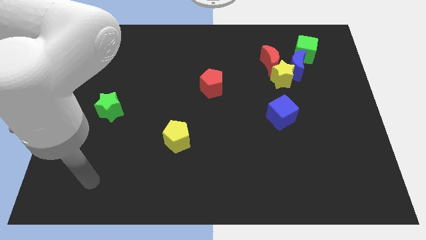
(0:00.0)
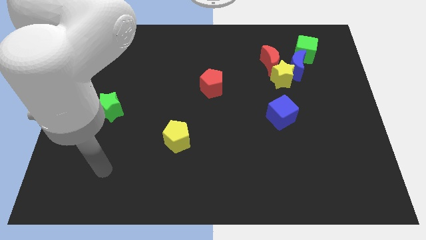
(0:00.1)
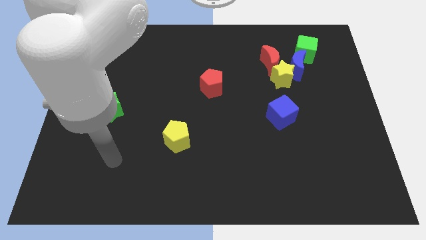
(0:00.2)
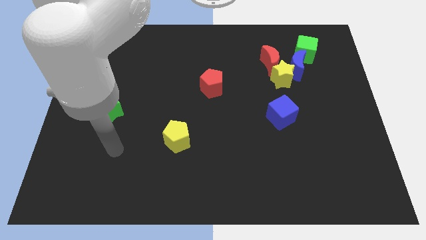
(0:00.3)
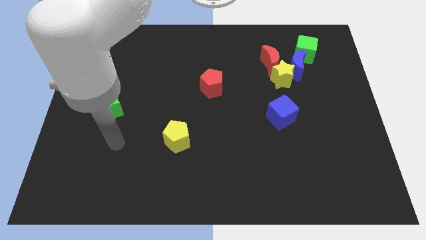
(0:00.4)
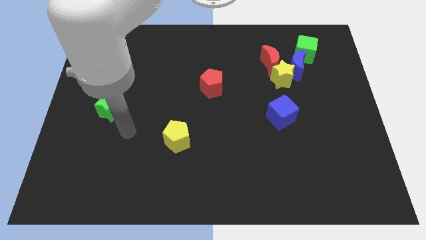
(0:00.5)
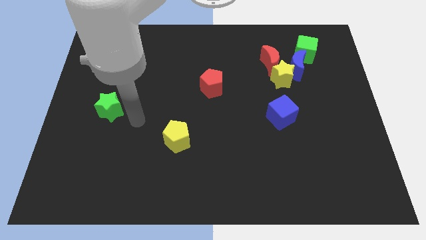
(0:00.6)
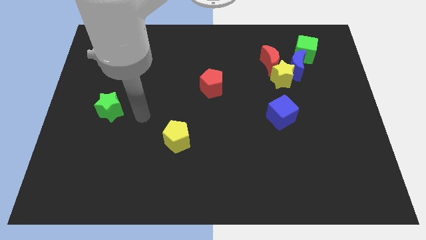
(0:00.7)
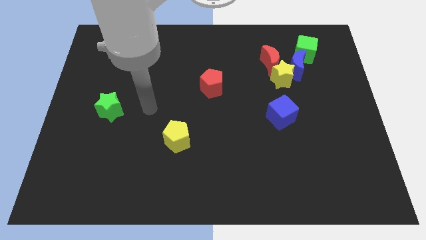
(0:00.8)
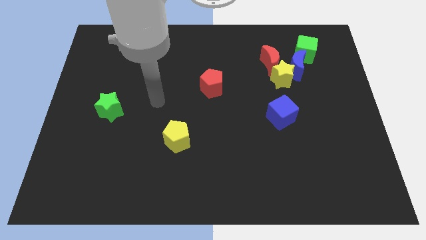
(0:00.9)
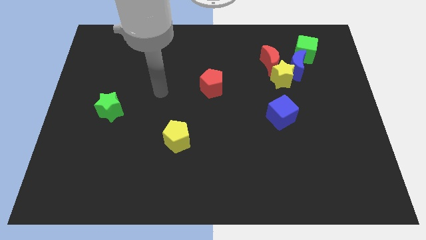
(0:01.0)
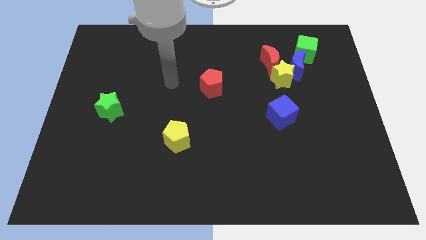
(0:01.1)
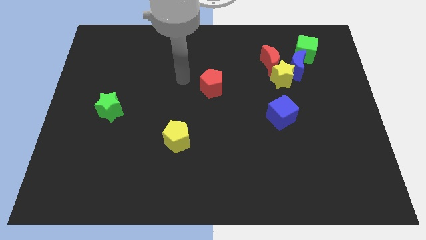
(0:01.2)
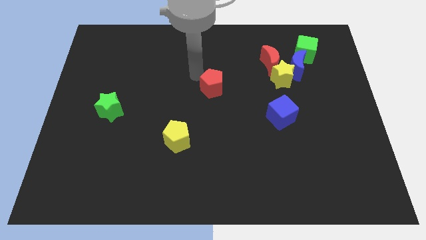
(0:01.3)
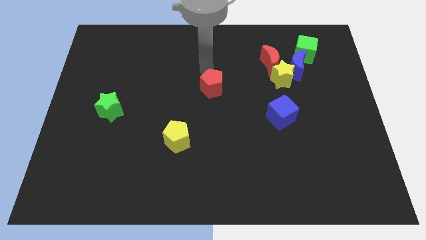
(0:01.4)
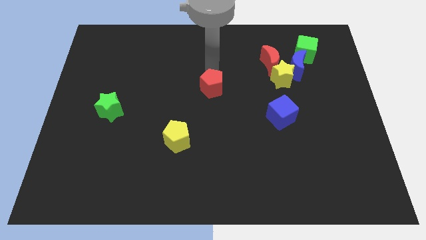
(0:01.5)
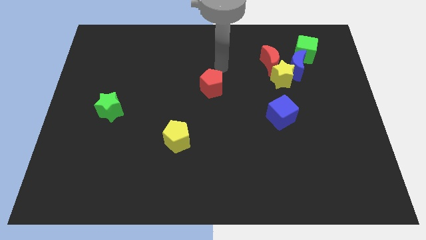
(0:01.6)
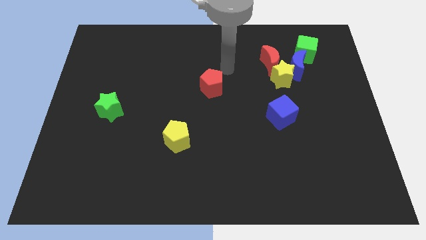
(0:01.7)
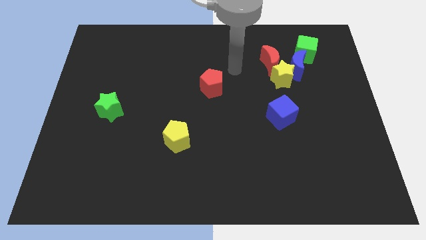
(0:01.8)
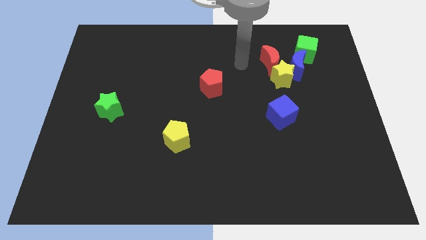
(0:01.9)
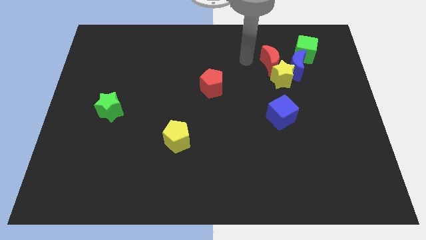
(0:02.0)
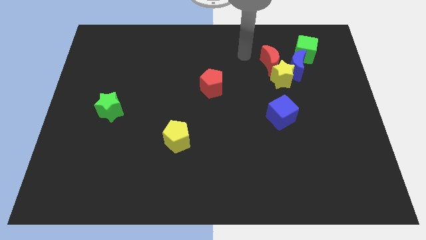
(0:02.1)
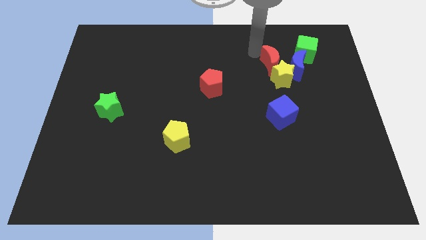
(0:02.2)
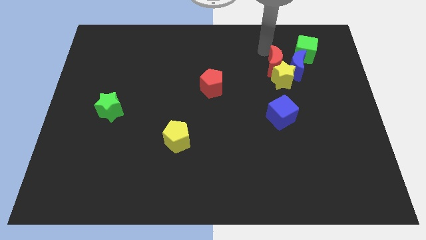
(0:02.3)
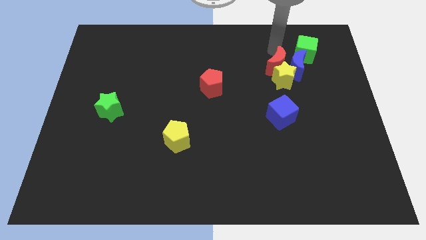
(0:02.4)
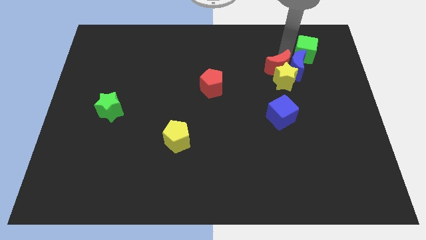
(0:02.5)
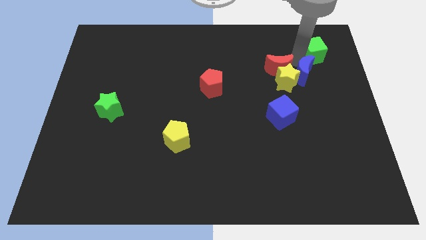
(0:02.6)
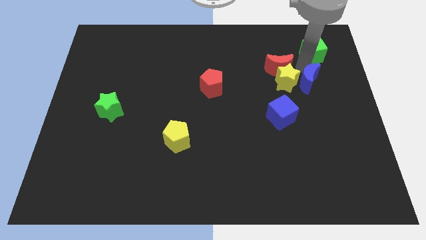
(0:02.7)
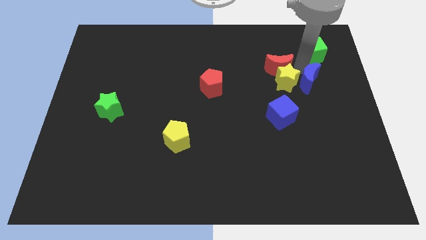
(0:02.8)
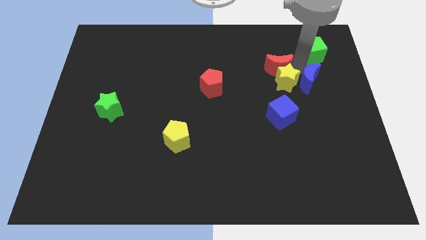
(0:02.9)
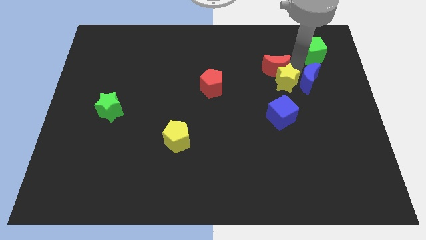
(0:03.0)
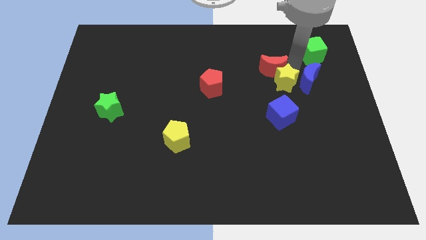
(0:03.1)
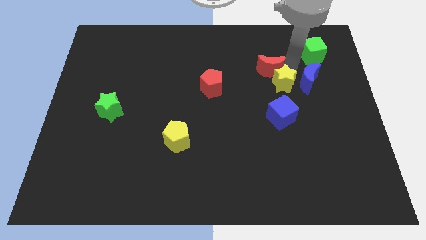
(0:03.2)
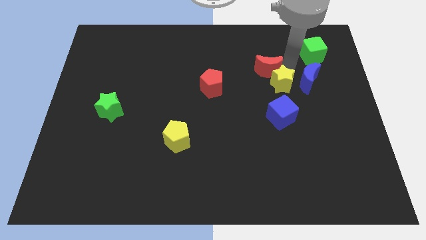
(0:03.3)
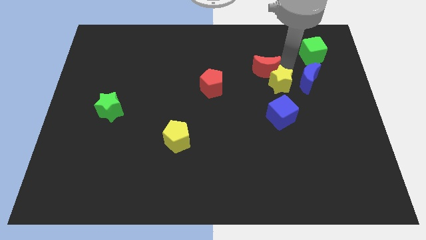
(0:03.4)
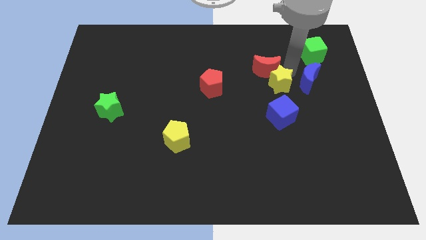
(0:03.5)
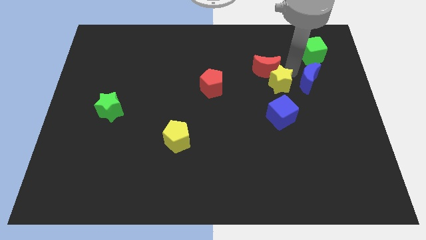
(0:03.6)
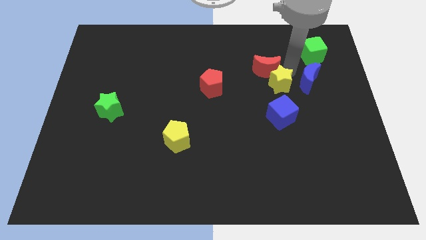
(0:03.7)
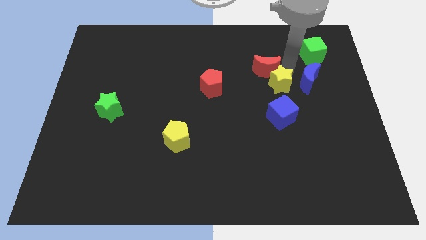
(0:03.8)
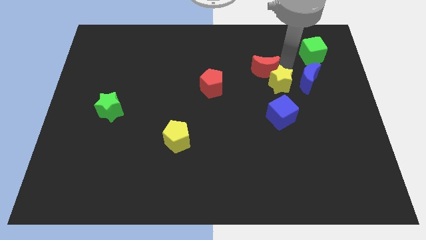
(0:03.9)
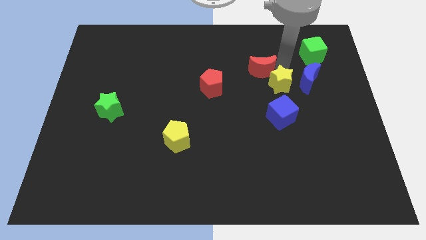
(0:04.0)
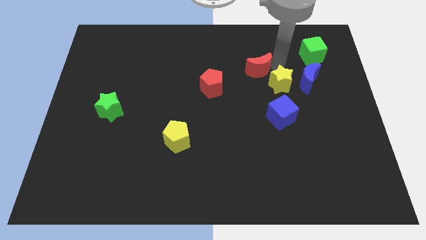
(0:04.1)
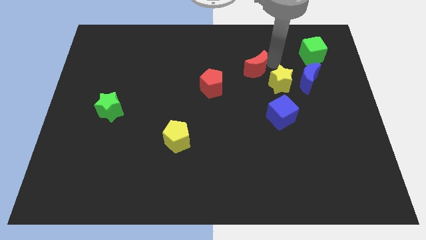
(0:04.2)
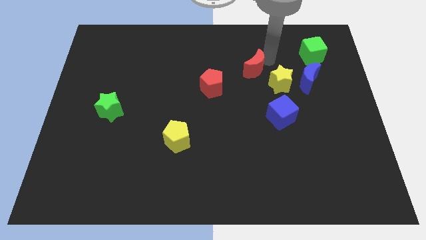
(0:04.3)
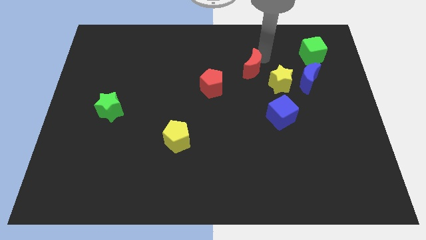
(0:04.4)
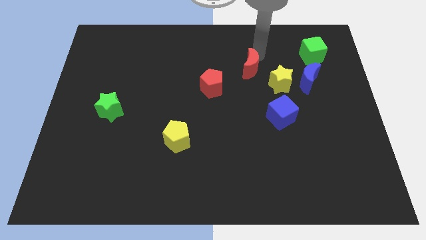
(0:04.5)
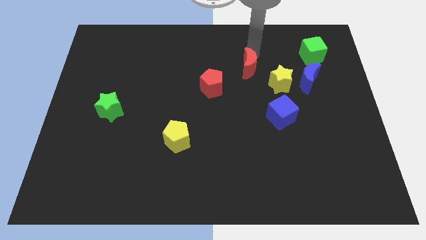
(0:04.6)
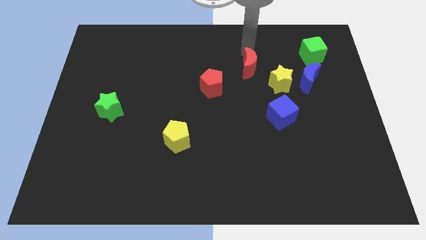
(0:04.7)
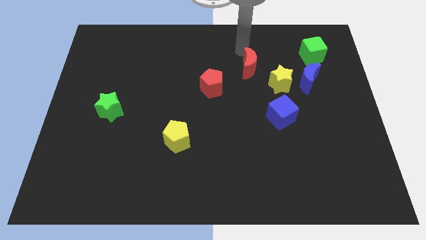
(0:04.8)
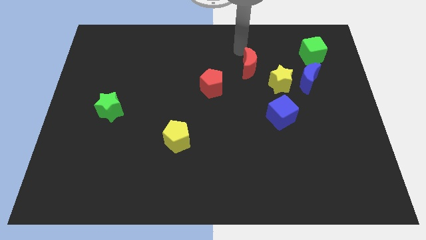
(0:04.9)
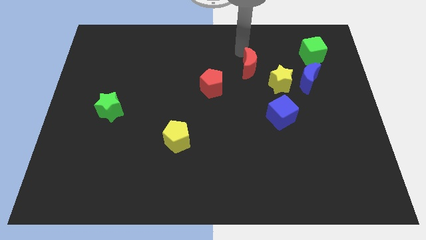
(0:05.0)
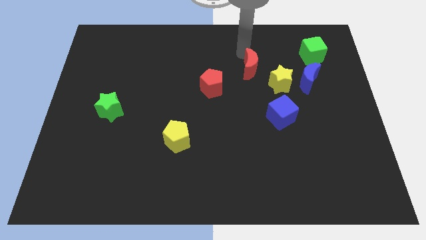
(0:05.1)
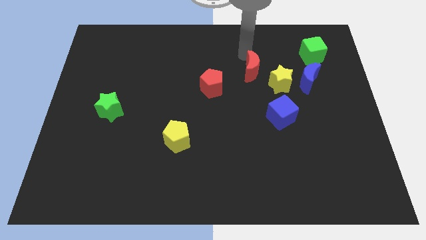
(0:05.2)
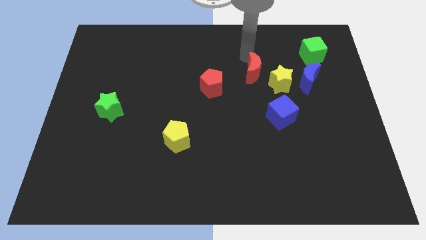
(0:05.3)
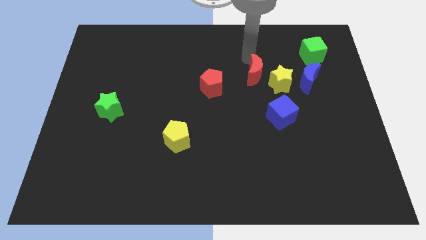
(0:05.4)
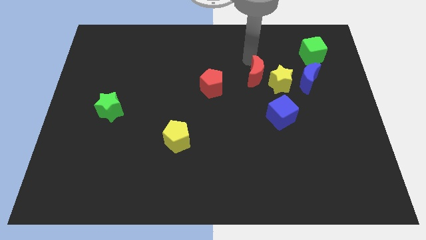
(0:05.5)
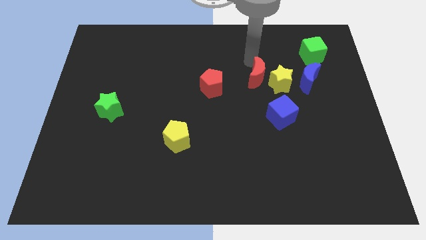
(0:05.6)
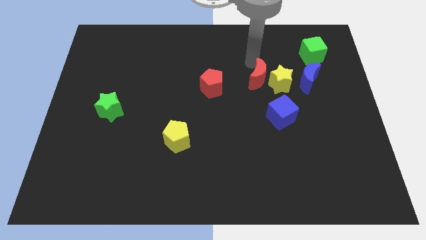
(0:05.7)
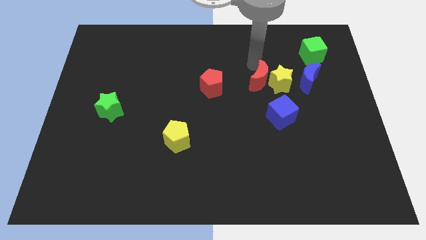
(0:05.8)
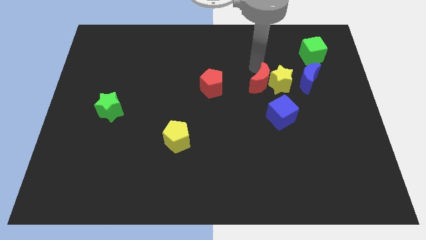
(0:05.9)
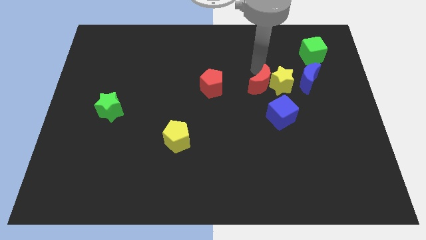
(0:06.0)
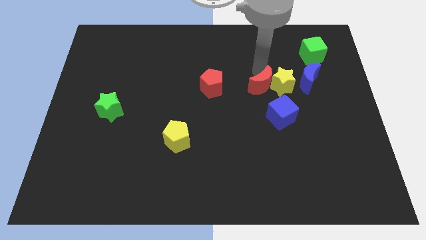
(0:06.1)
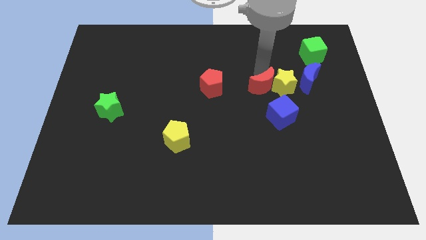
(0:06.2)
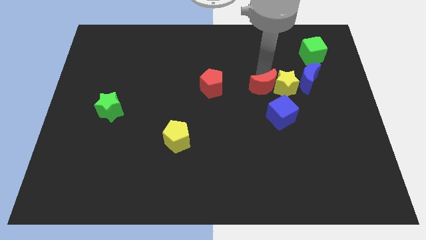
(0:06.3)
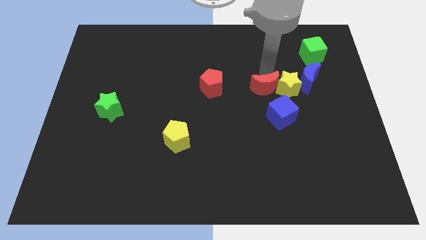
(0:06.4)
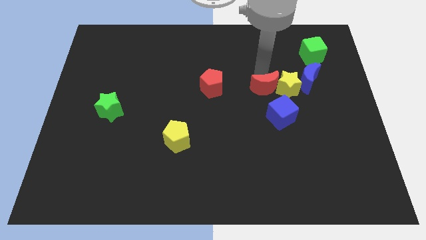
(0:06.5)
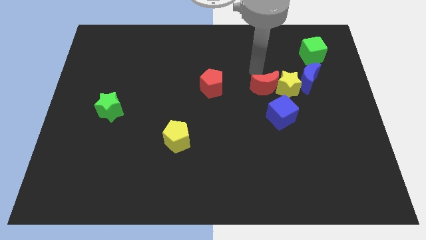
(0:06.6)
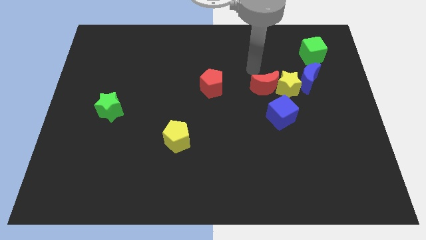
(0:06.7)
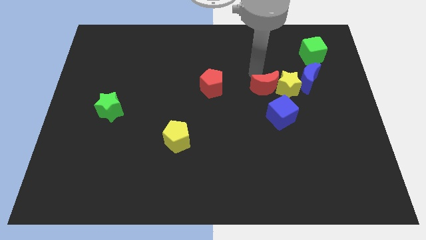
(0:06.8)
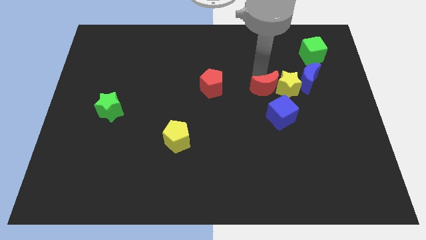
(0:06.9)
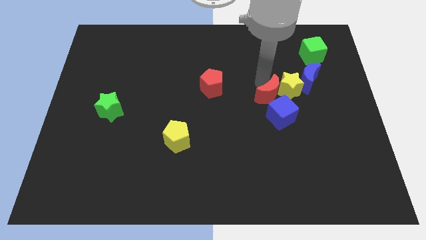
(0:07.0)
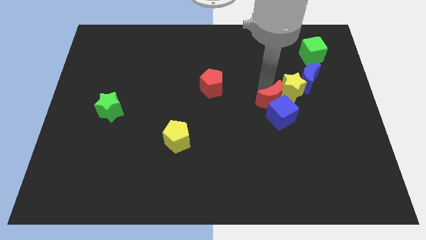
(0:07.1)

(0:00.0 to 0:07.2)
slide the red moon to the blue cube

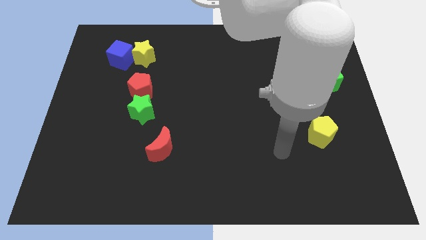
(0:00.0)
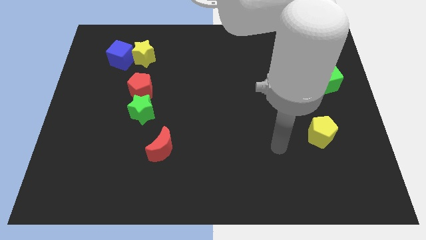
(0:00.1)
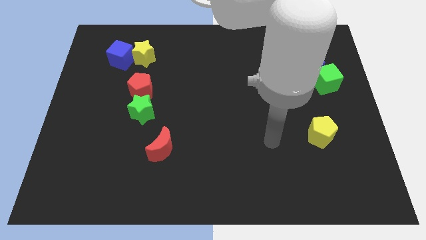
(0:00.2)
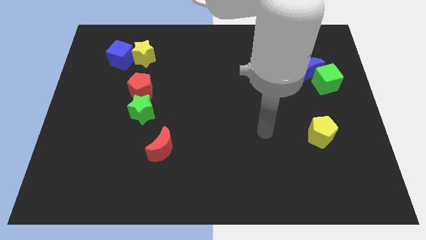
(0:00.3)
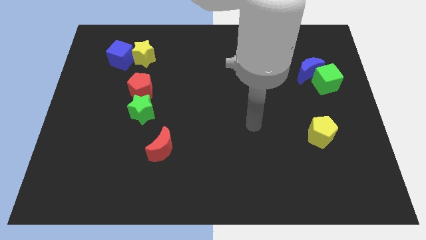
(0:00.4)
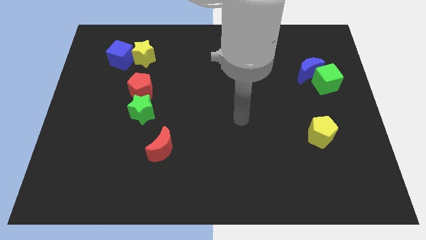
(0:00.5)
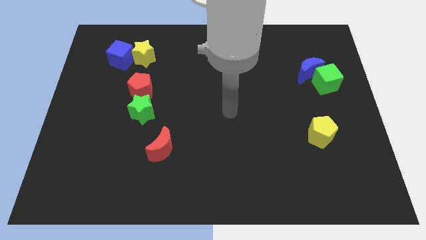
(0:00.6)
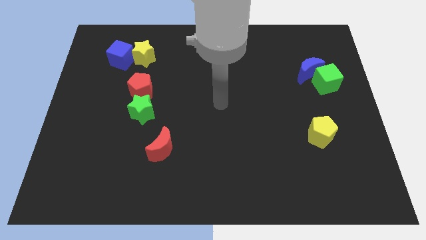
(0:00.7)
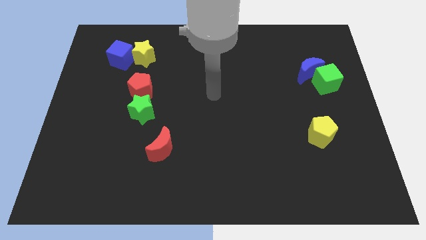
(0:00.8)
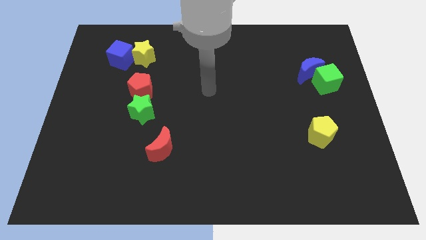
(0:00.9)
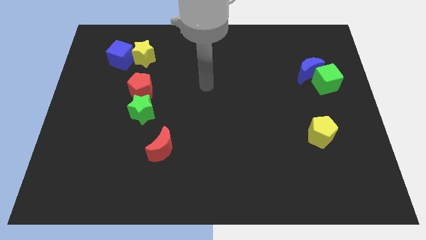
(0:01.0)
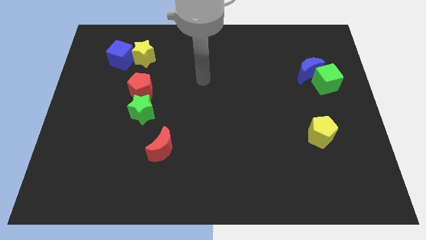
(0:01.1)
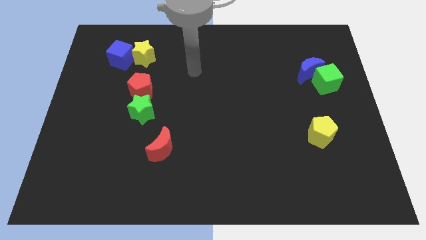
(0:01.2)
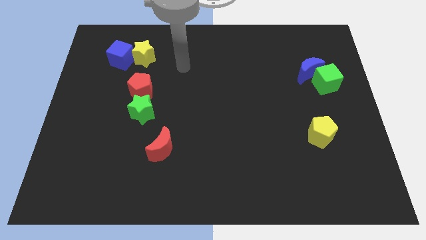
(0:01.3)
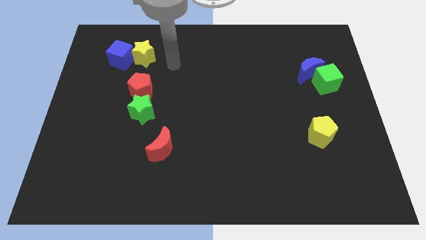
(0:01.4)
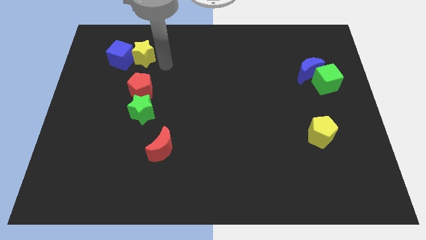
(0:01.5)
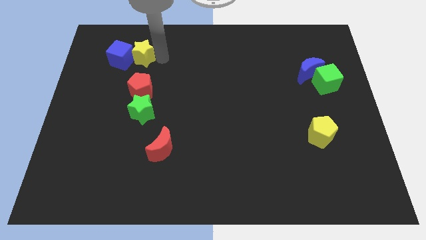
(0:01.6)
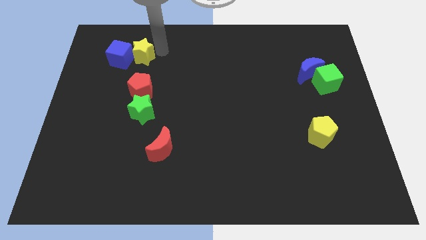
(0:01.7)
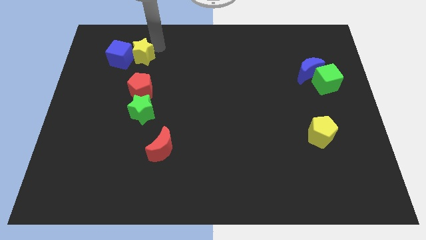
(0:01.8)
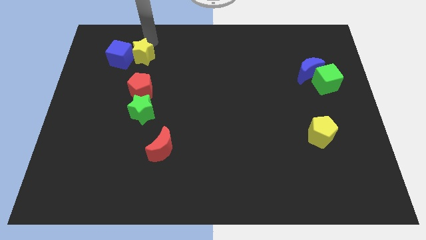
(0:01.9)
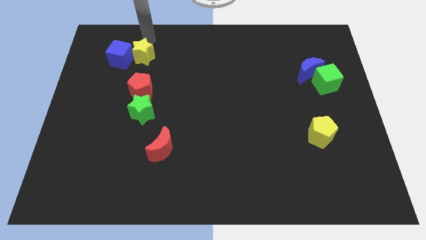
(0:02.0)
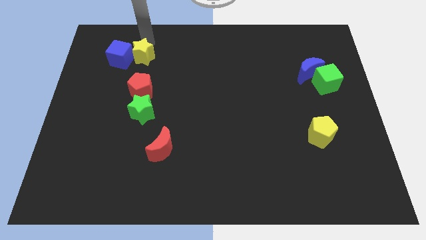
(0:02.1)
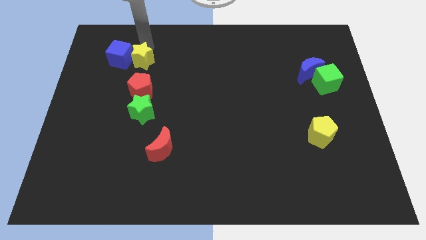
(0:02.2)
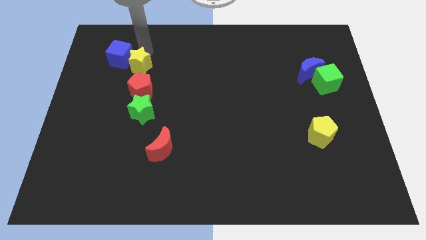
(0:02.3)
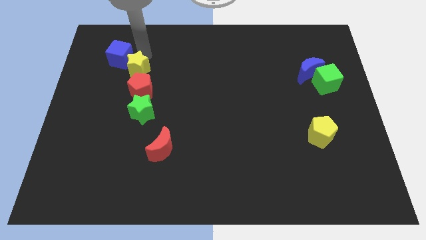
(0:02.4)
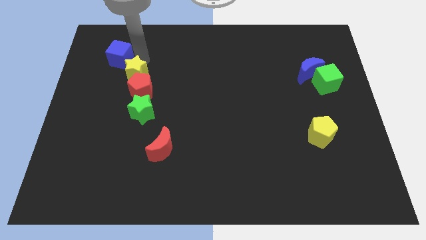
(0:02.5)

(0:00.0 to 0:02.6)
move the yellow star towards the red pentagon
